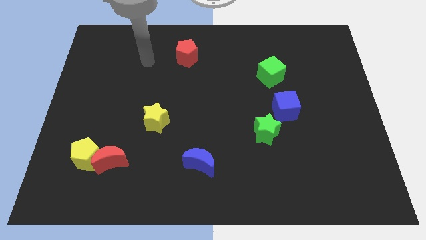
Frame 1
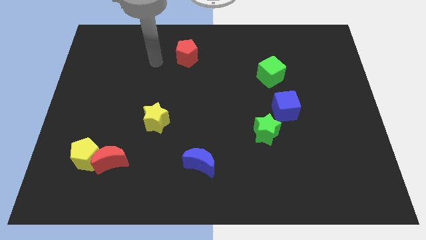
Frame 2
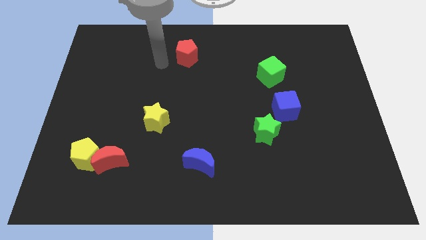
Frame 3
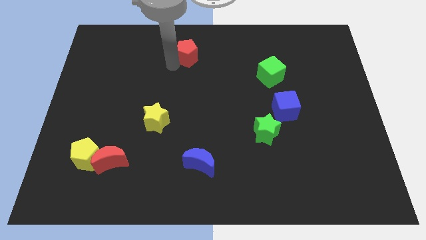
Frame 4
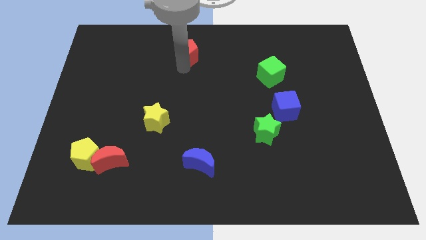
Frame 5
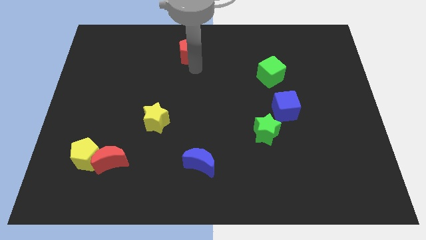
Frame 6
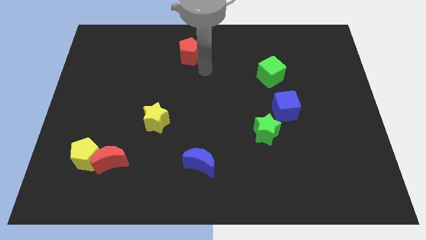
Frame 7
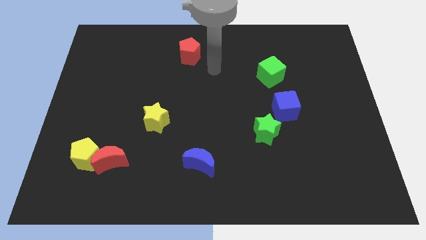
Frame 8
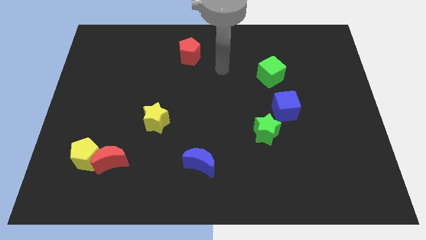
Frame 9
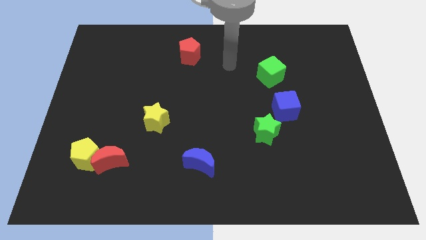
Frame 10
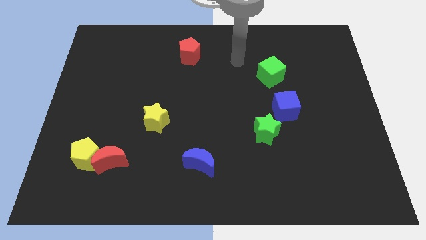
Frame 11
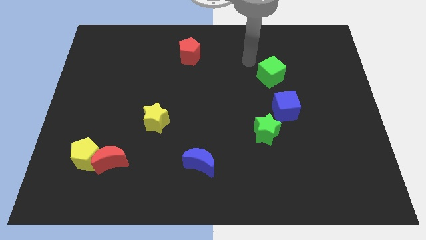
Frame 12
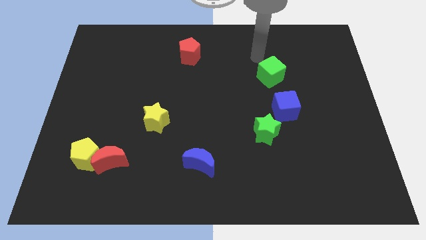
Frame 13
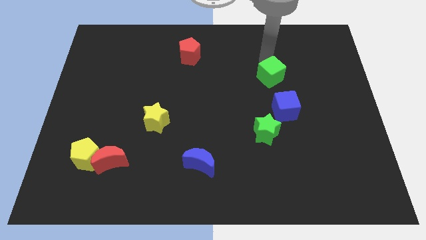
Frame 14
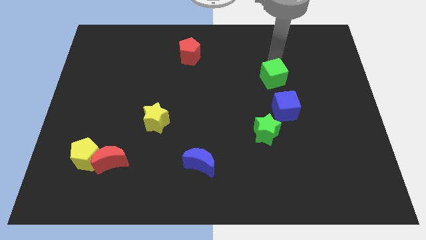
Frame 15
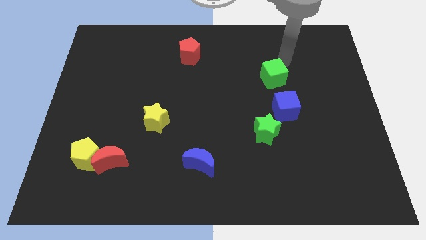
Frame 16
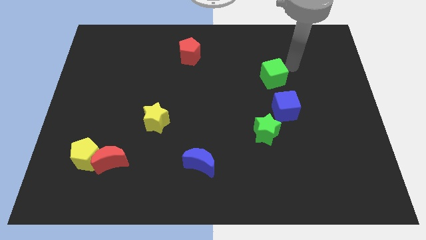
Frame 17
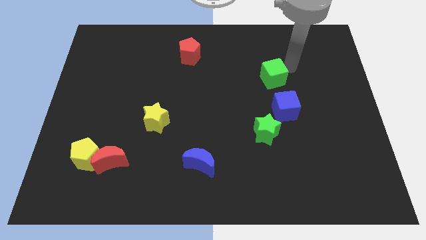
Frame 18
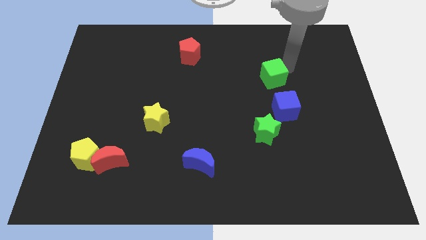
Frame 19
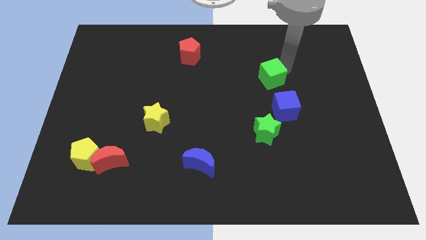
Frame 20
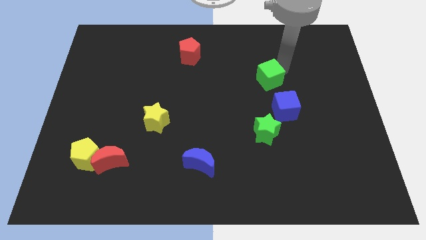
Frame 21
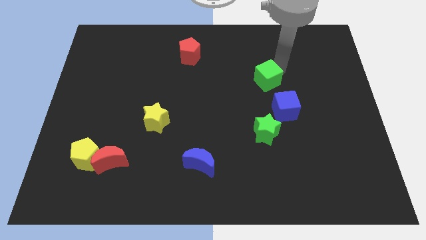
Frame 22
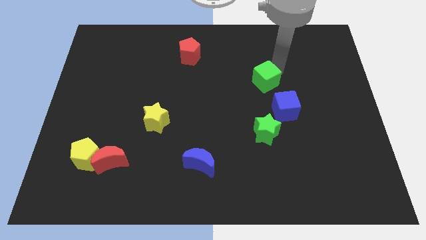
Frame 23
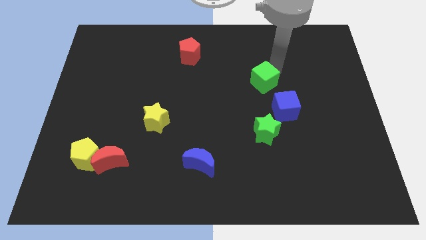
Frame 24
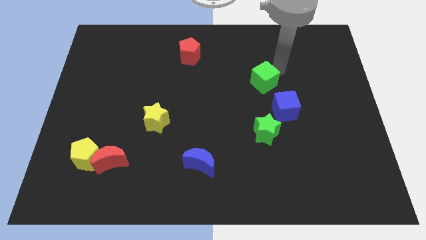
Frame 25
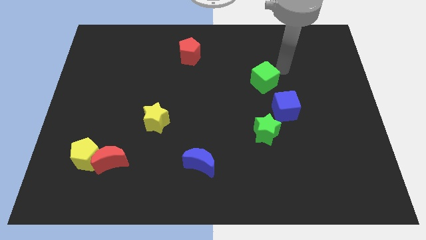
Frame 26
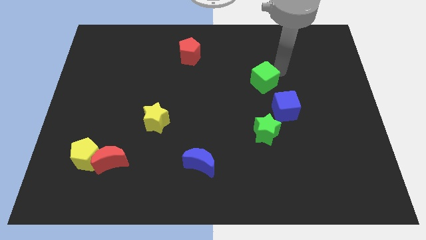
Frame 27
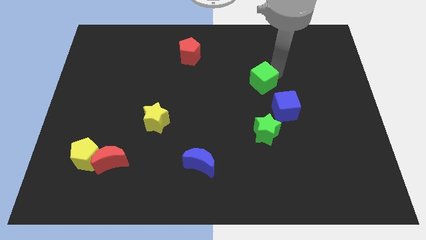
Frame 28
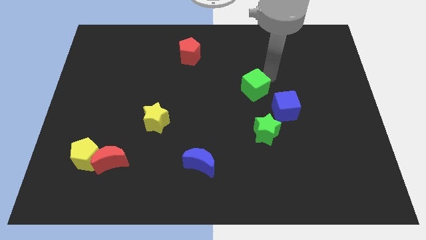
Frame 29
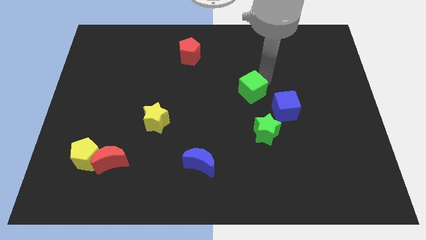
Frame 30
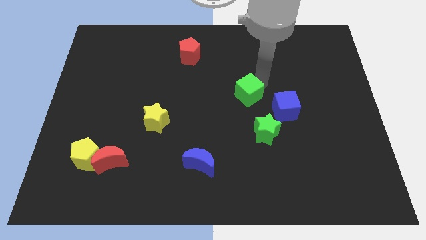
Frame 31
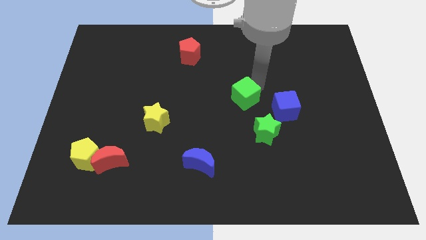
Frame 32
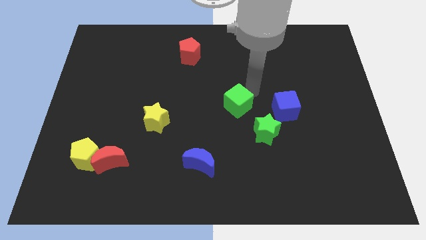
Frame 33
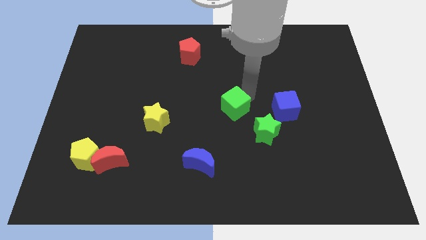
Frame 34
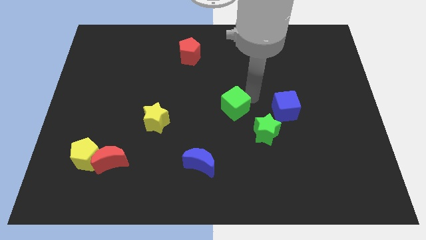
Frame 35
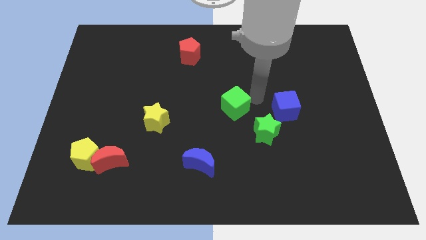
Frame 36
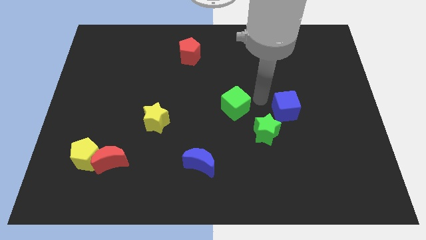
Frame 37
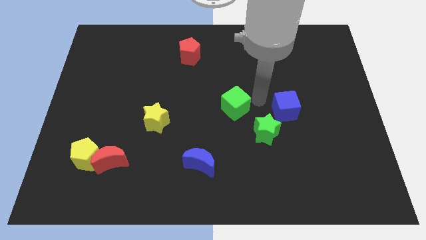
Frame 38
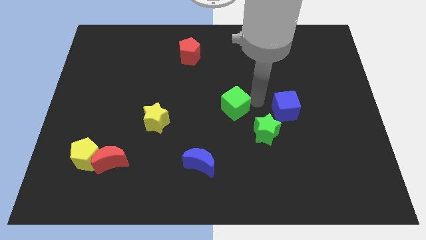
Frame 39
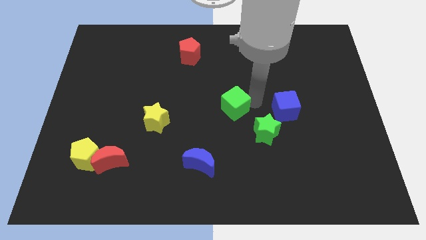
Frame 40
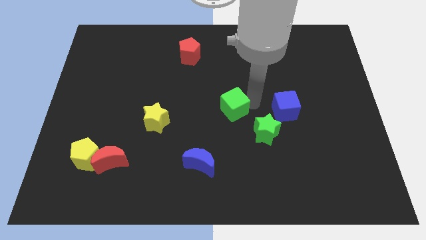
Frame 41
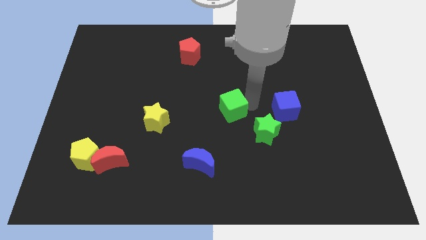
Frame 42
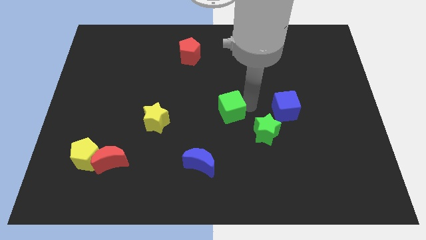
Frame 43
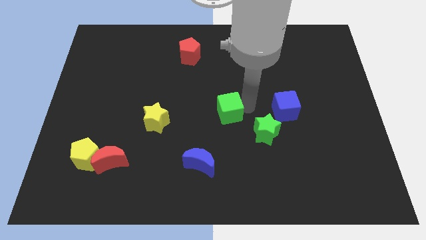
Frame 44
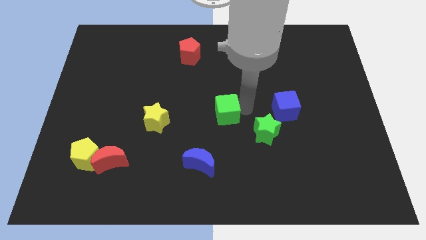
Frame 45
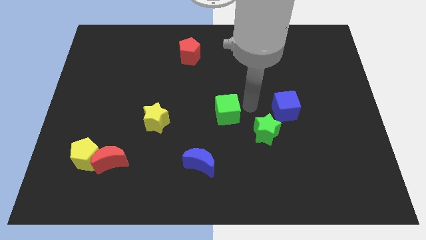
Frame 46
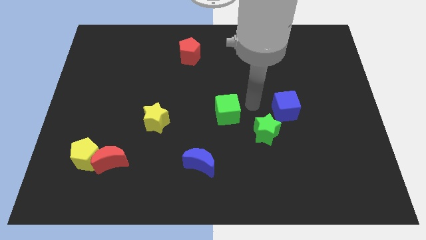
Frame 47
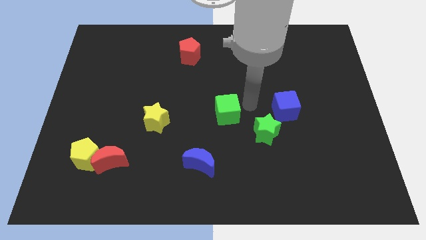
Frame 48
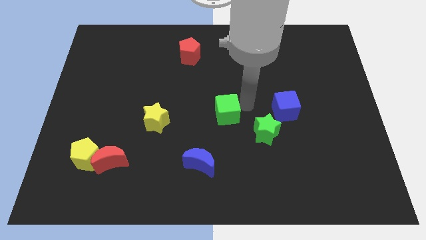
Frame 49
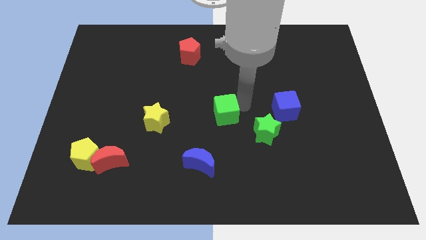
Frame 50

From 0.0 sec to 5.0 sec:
move the green cube to the right side of the yellow star

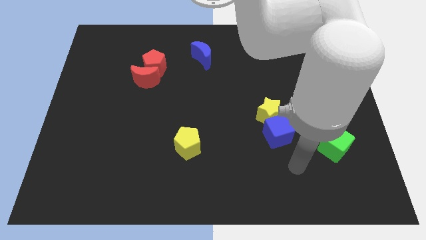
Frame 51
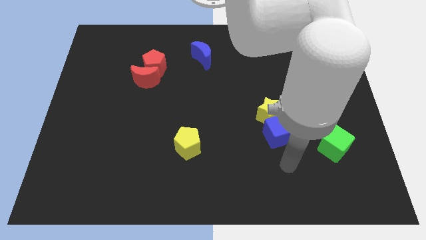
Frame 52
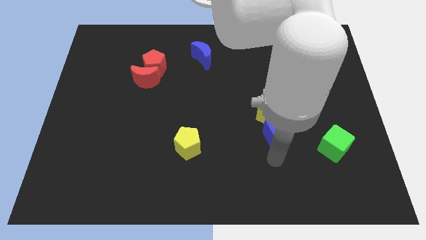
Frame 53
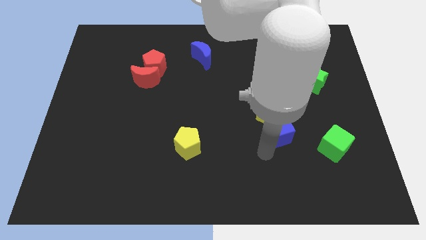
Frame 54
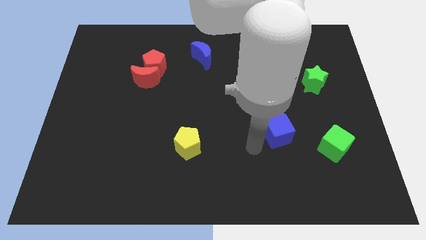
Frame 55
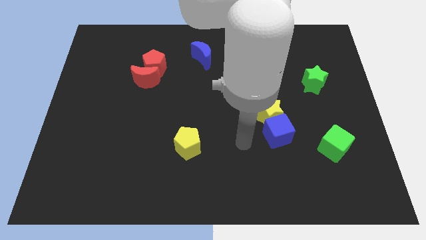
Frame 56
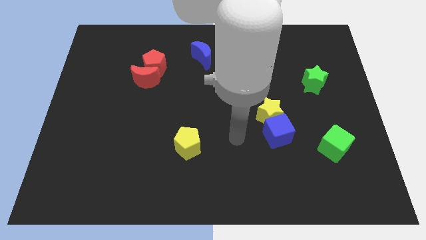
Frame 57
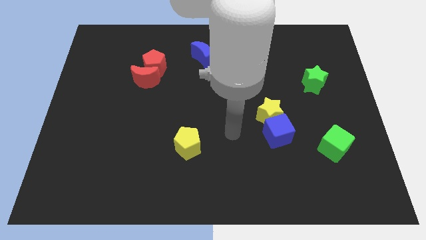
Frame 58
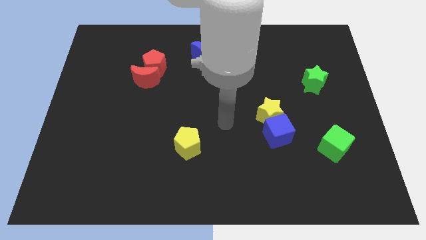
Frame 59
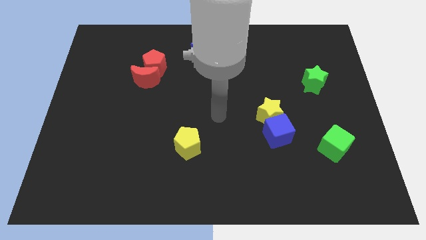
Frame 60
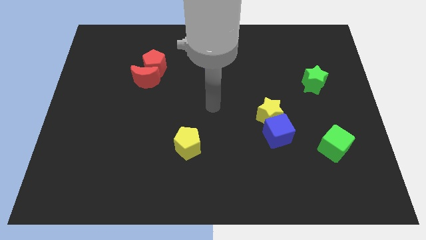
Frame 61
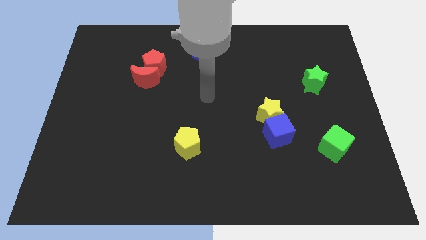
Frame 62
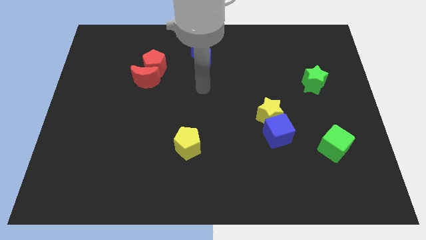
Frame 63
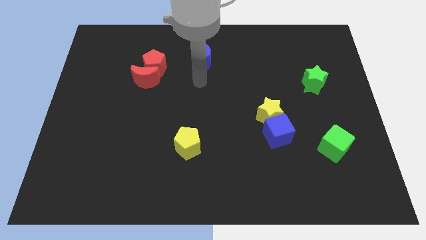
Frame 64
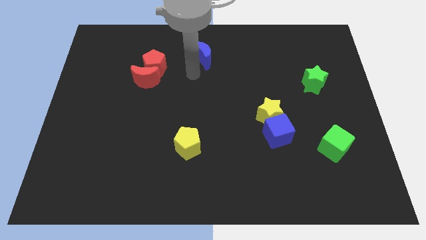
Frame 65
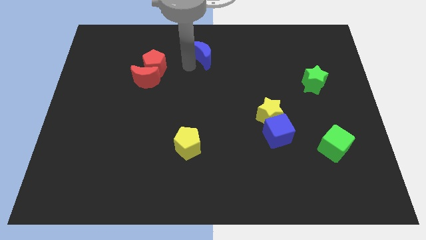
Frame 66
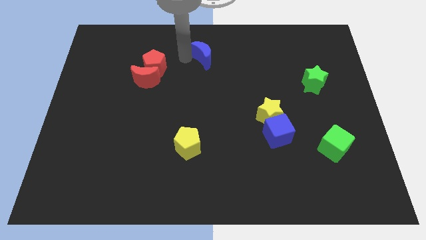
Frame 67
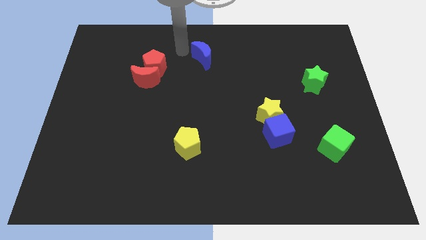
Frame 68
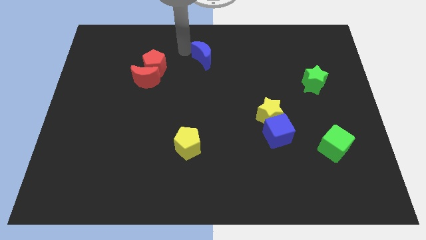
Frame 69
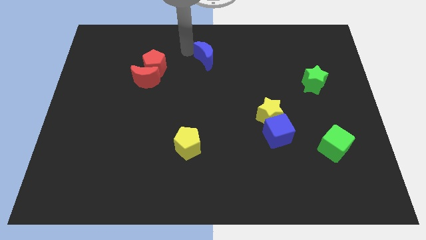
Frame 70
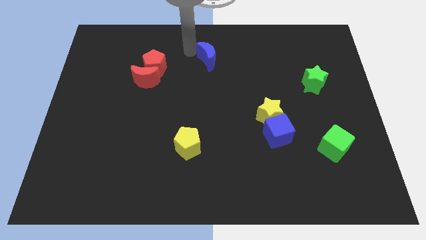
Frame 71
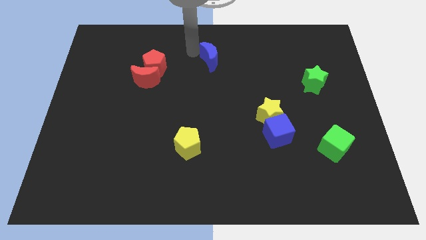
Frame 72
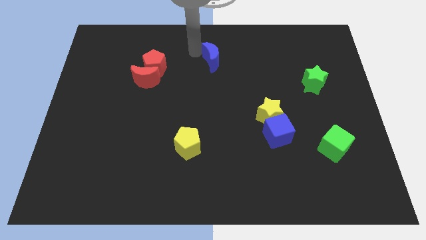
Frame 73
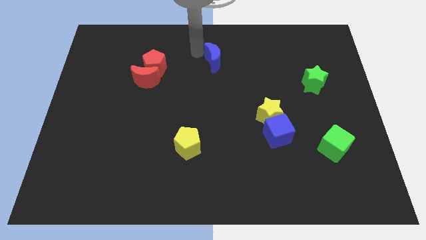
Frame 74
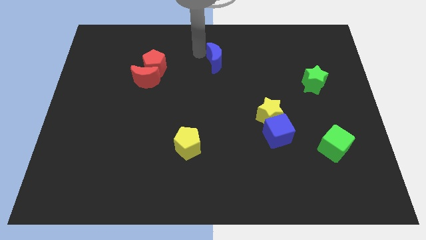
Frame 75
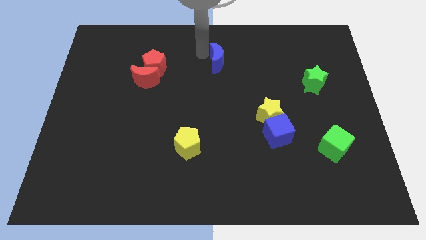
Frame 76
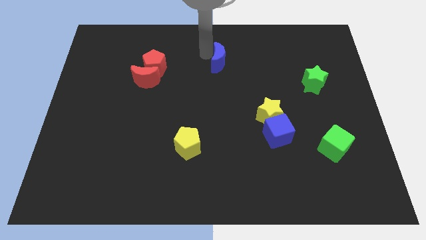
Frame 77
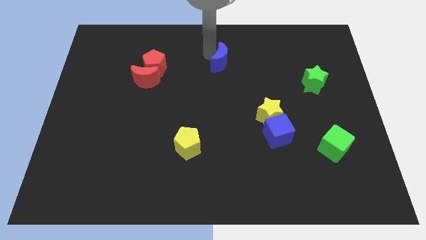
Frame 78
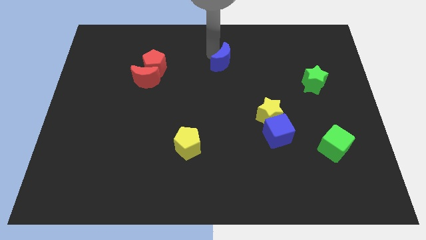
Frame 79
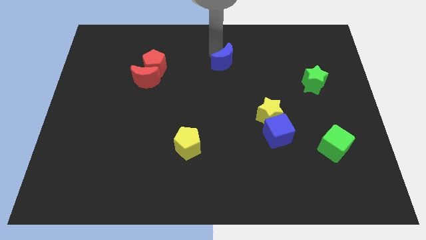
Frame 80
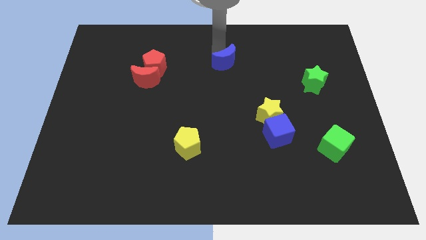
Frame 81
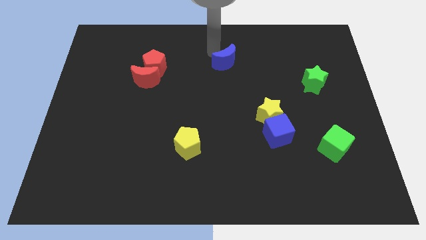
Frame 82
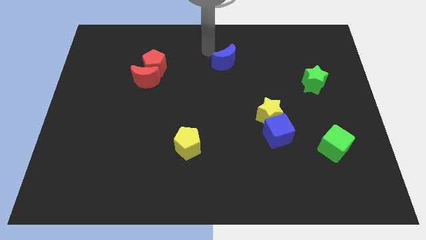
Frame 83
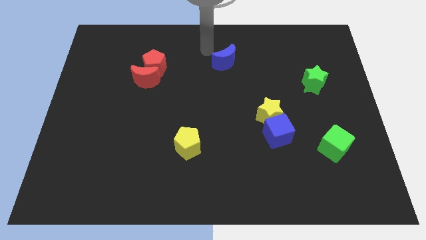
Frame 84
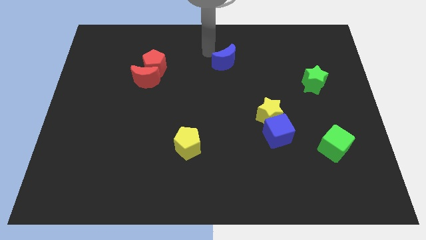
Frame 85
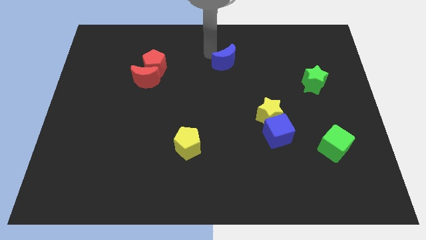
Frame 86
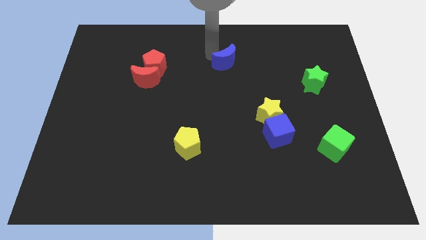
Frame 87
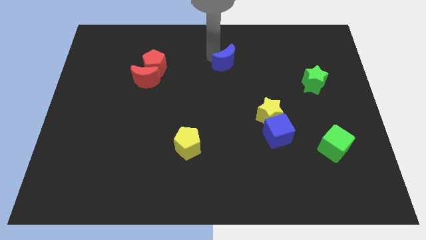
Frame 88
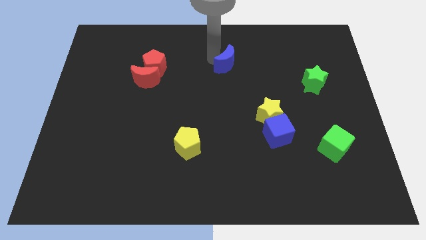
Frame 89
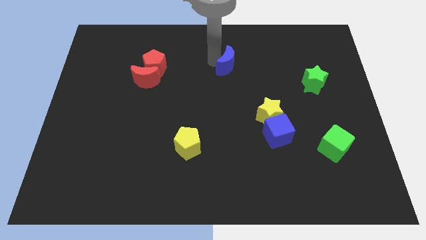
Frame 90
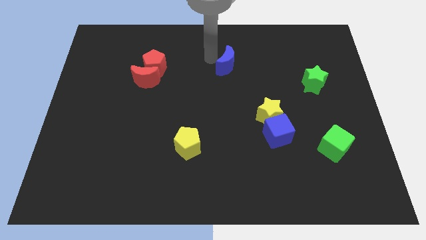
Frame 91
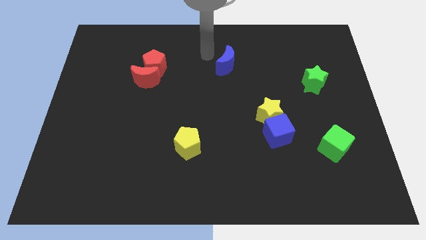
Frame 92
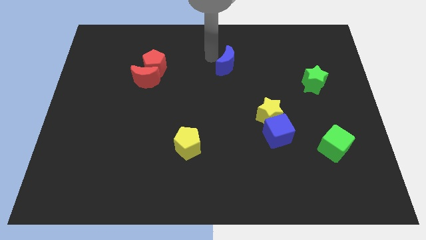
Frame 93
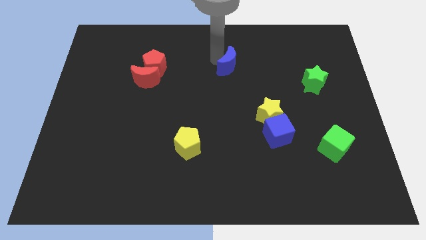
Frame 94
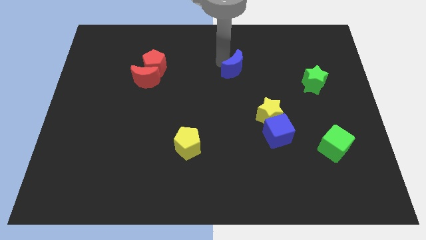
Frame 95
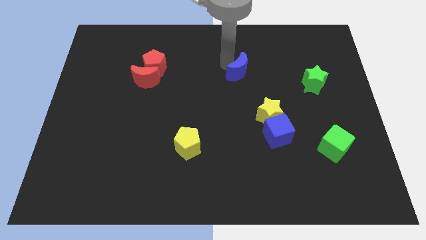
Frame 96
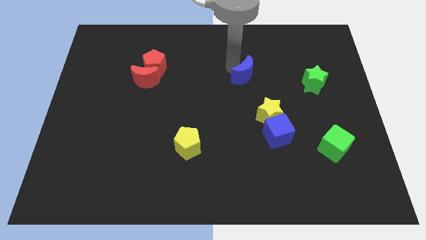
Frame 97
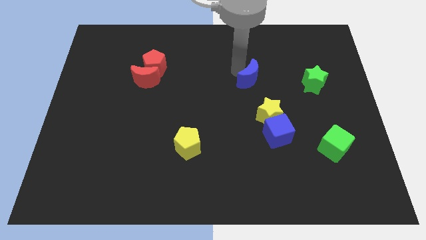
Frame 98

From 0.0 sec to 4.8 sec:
slide the blue moon above the yellow star
